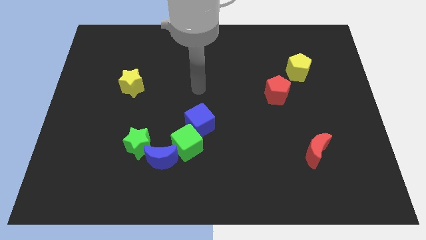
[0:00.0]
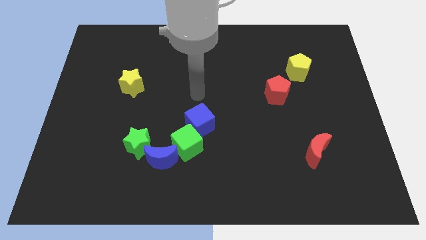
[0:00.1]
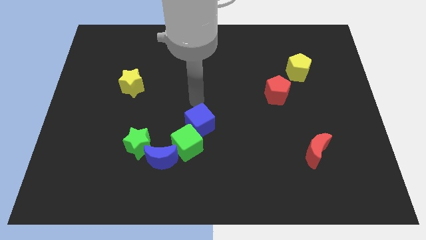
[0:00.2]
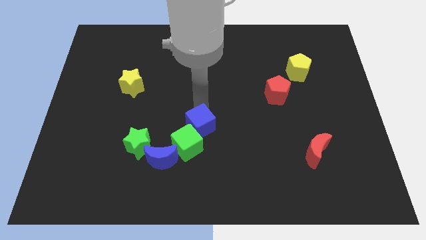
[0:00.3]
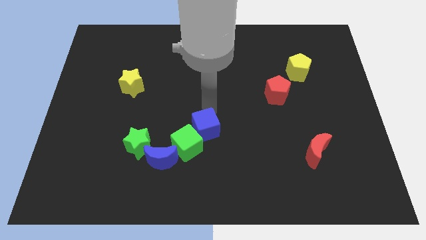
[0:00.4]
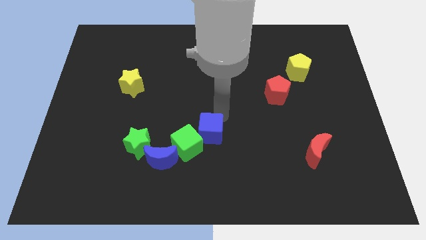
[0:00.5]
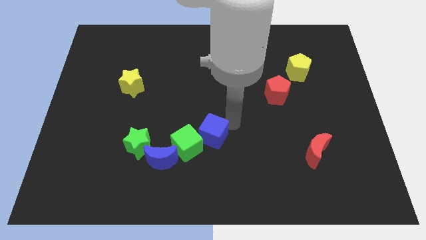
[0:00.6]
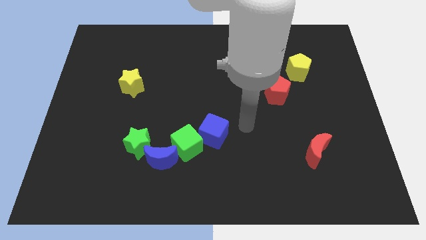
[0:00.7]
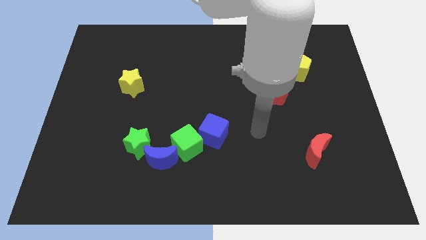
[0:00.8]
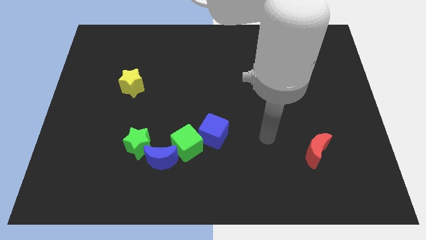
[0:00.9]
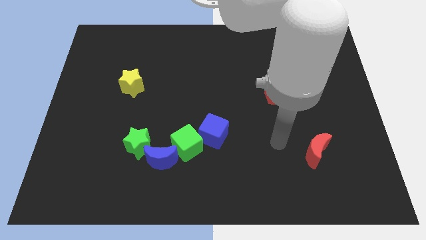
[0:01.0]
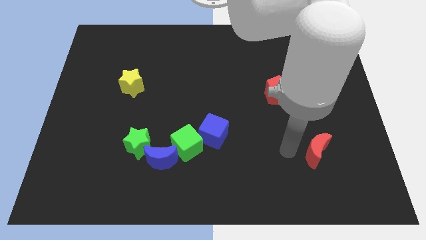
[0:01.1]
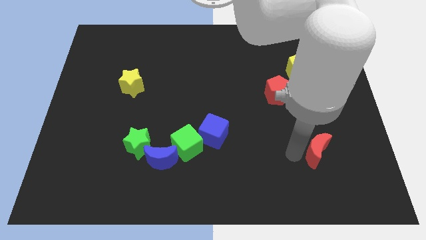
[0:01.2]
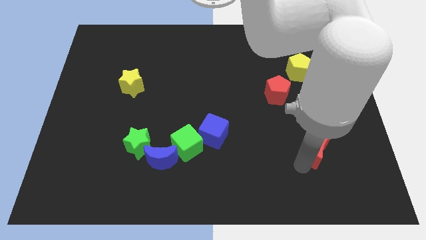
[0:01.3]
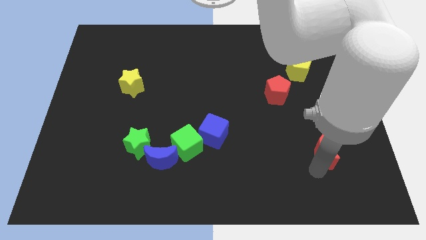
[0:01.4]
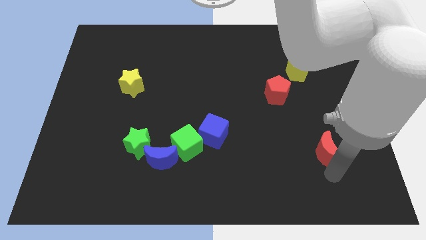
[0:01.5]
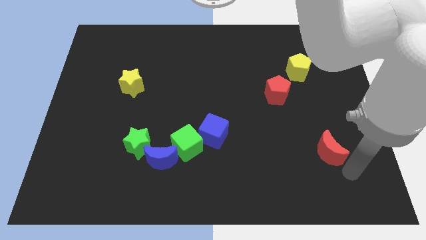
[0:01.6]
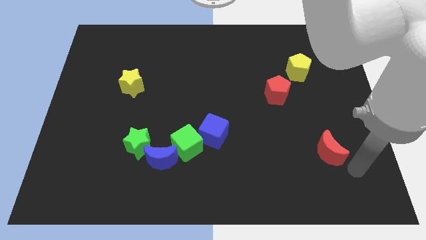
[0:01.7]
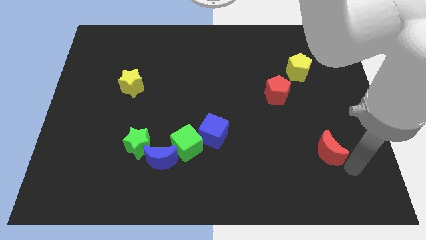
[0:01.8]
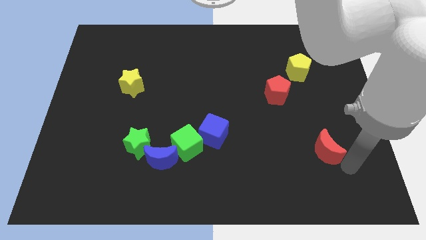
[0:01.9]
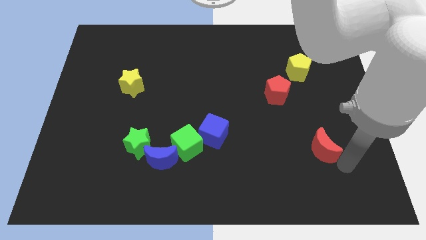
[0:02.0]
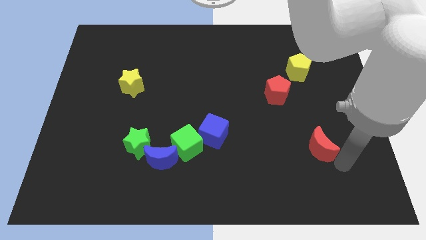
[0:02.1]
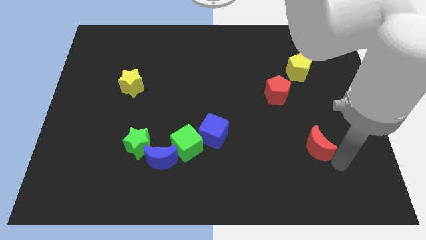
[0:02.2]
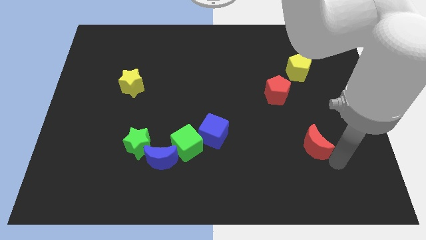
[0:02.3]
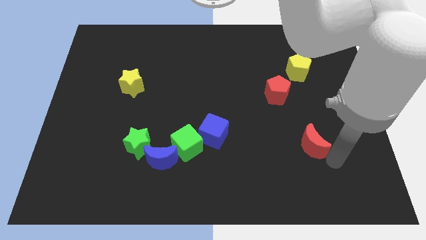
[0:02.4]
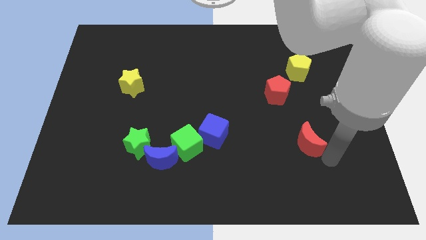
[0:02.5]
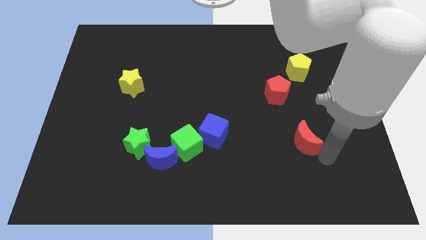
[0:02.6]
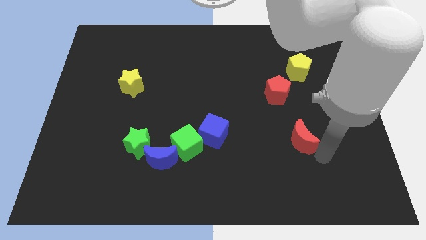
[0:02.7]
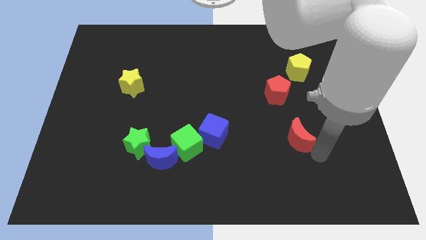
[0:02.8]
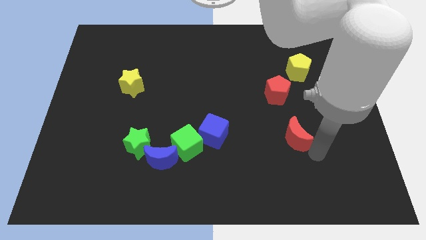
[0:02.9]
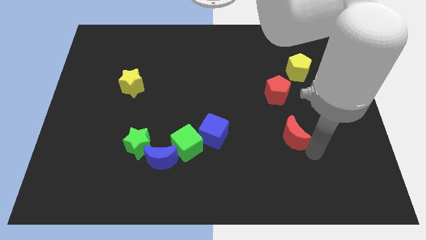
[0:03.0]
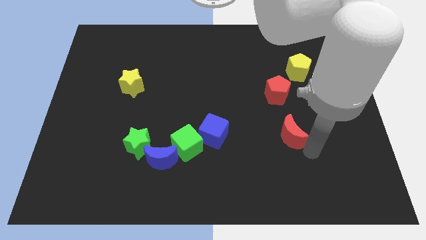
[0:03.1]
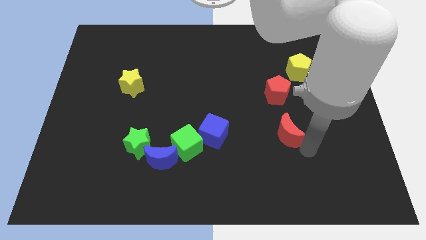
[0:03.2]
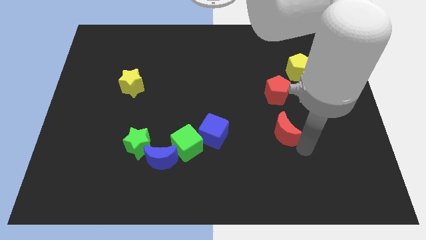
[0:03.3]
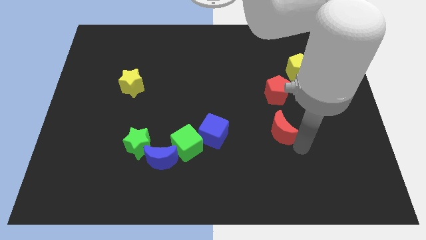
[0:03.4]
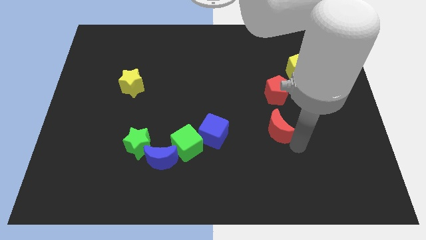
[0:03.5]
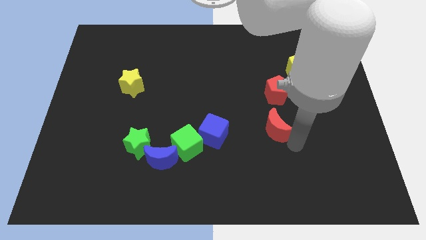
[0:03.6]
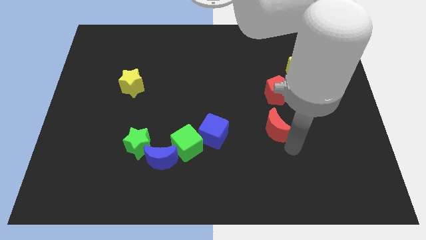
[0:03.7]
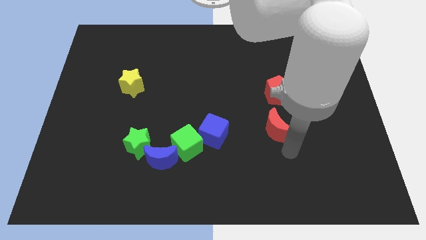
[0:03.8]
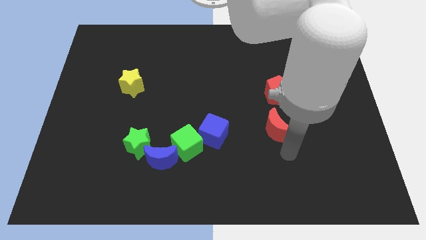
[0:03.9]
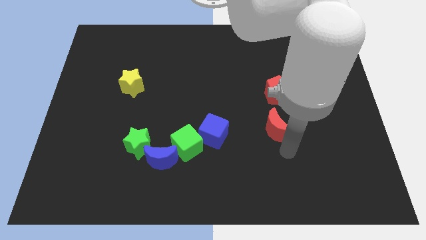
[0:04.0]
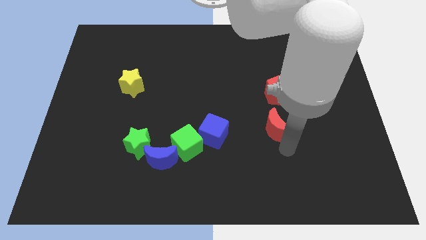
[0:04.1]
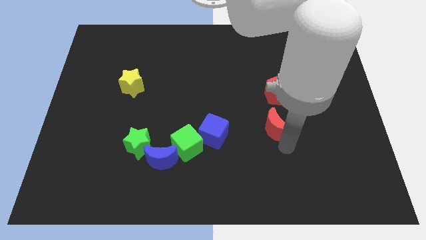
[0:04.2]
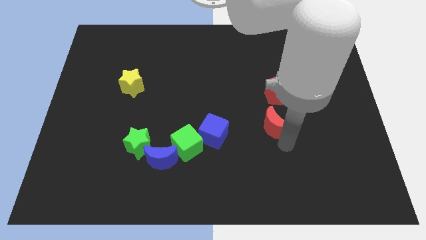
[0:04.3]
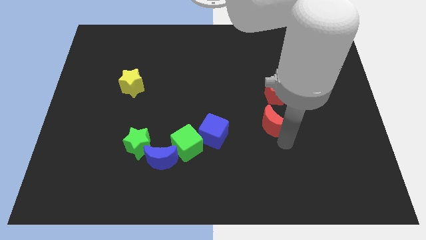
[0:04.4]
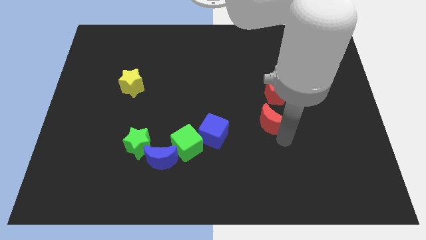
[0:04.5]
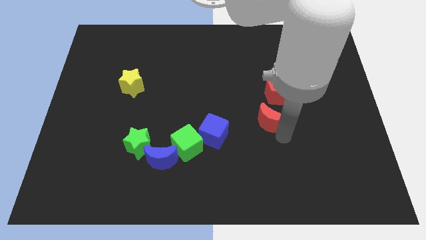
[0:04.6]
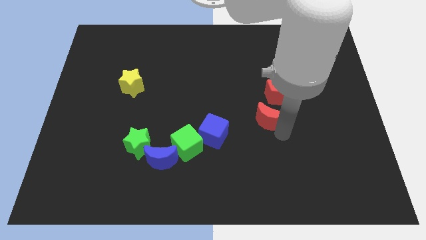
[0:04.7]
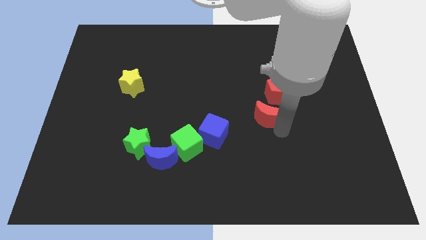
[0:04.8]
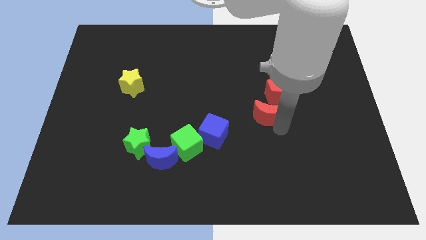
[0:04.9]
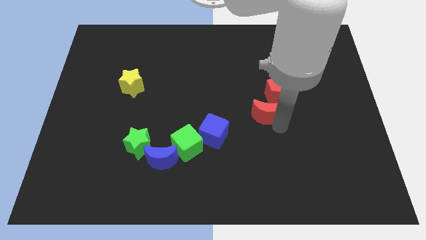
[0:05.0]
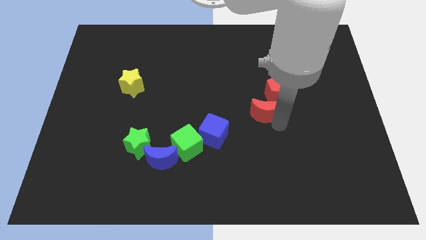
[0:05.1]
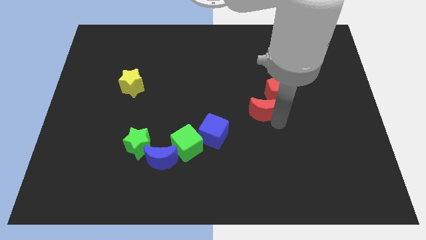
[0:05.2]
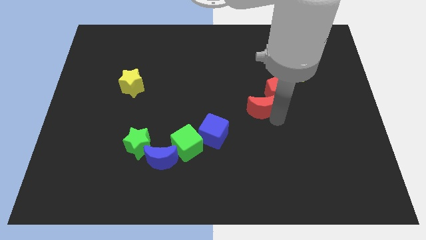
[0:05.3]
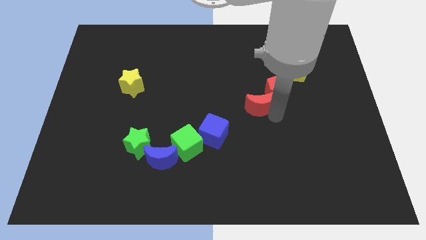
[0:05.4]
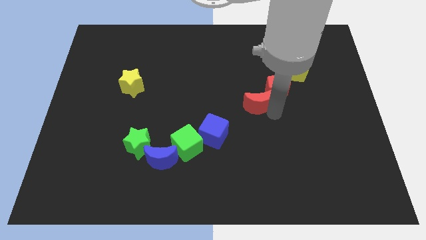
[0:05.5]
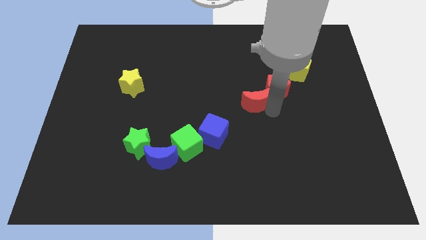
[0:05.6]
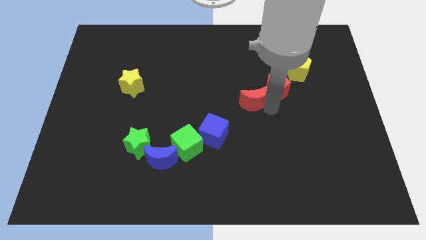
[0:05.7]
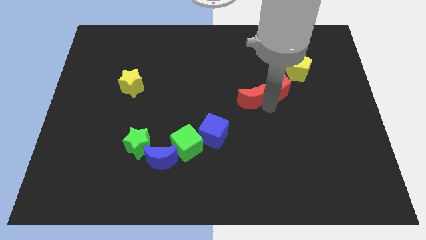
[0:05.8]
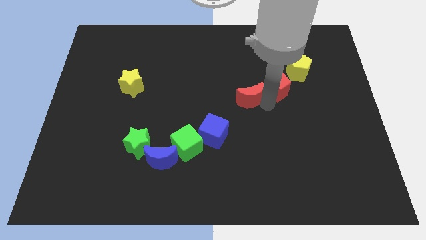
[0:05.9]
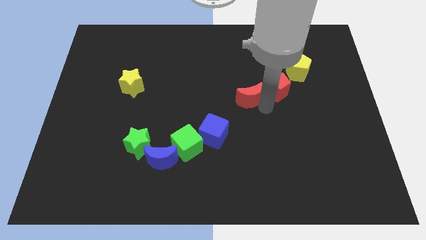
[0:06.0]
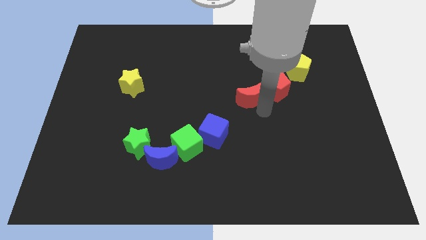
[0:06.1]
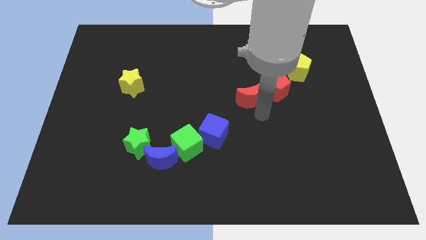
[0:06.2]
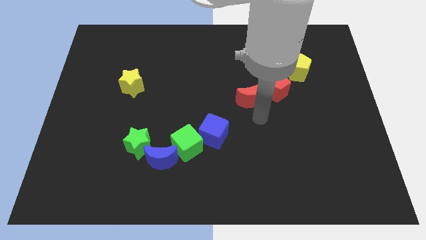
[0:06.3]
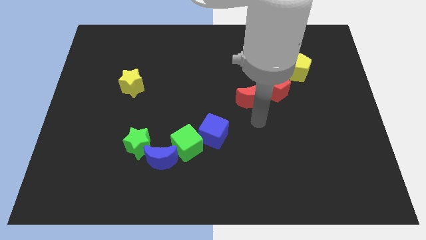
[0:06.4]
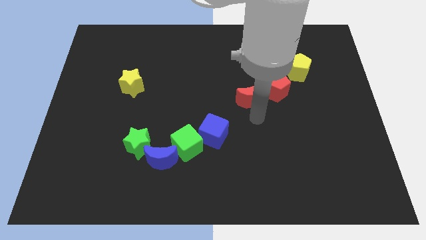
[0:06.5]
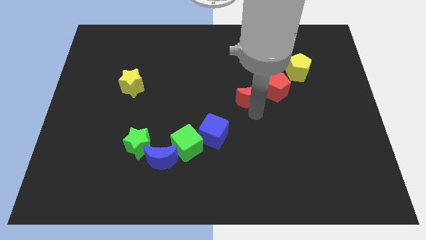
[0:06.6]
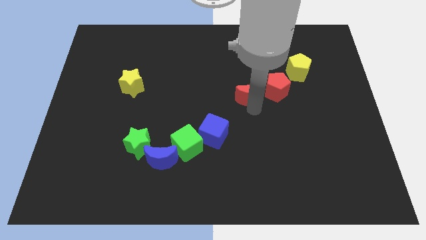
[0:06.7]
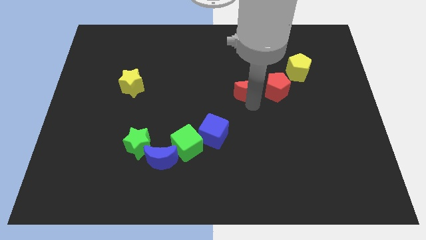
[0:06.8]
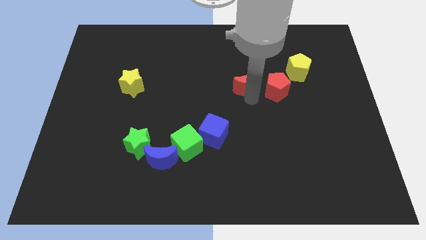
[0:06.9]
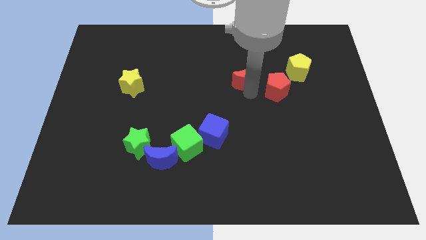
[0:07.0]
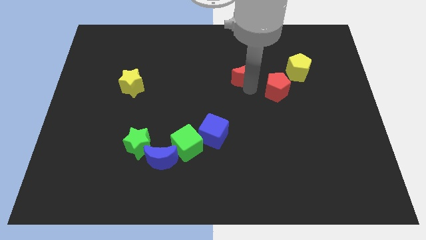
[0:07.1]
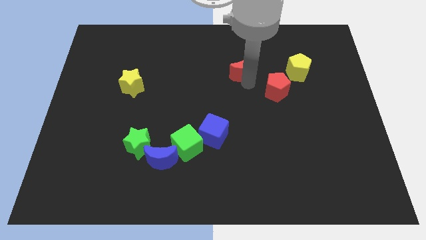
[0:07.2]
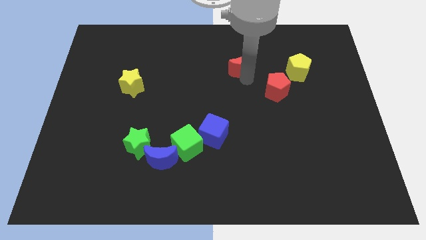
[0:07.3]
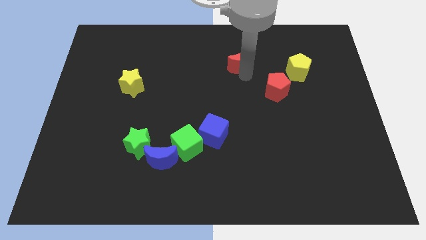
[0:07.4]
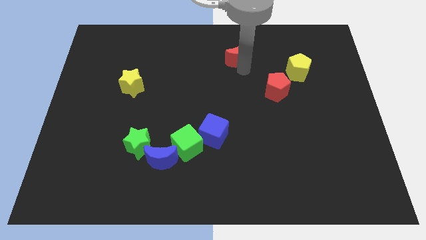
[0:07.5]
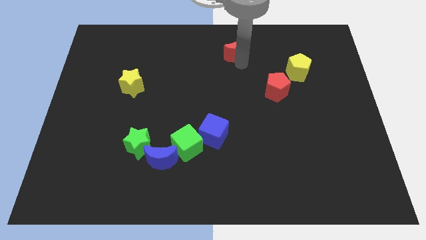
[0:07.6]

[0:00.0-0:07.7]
move the red moon to the top
